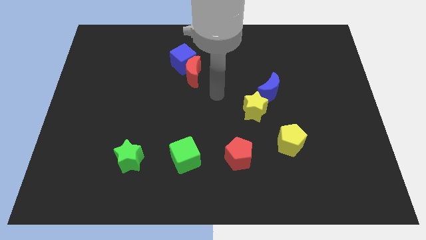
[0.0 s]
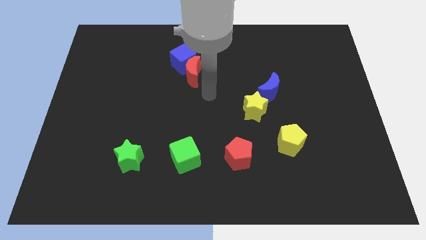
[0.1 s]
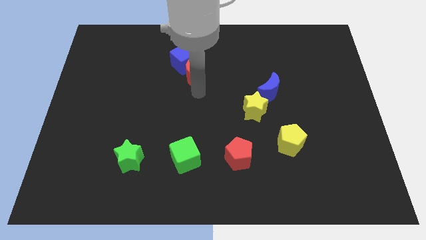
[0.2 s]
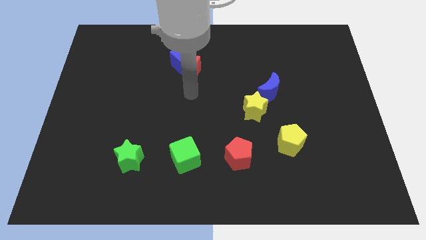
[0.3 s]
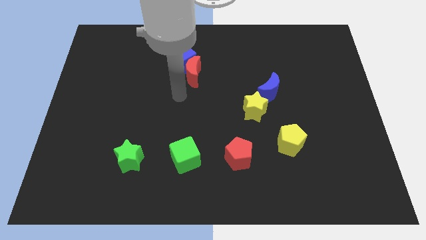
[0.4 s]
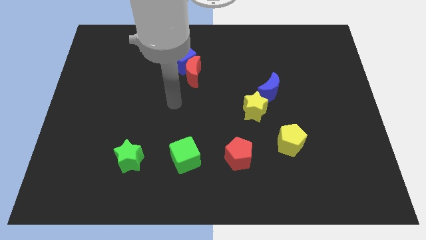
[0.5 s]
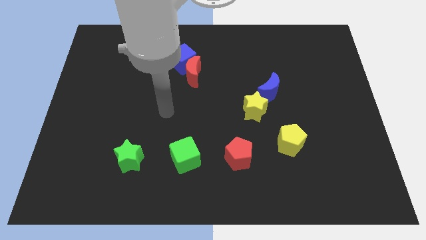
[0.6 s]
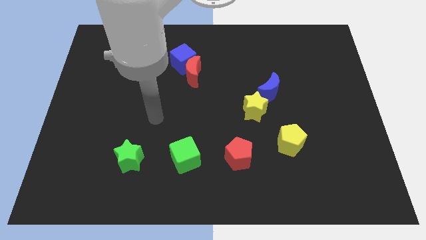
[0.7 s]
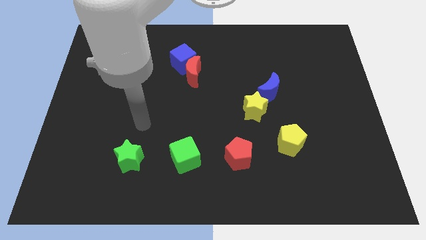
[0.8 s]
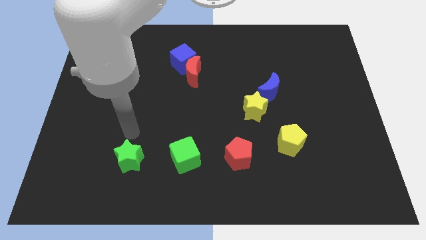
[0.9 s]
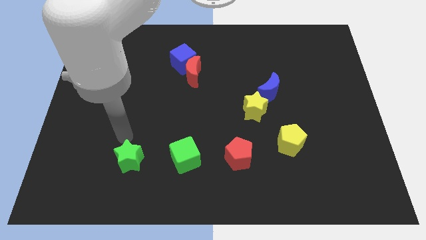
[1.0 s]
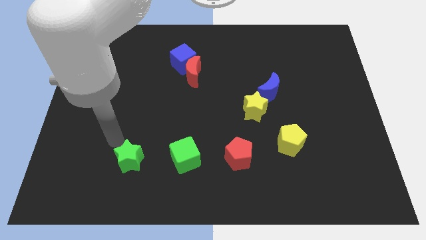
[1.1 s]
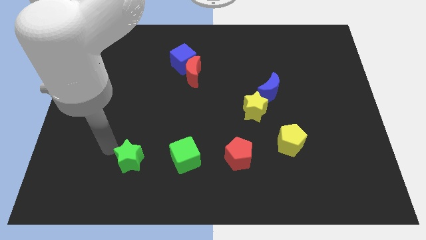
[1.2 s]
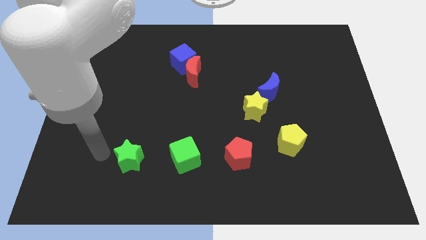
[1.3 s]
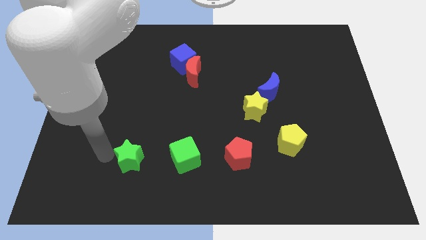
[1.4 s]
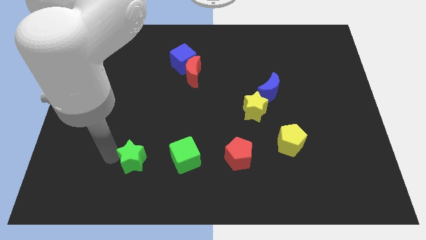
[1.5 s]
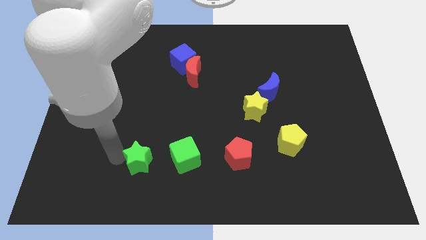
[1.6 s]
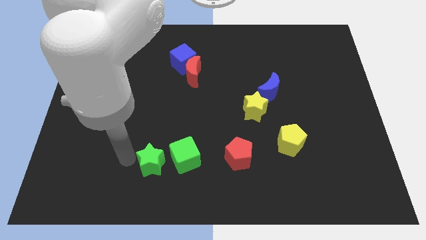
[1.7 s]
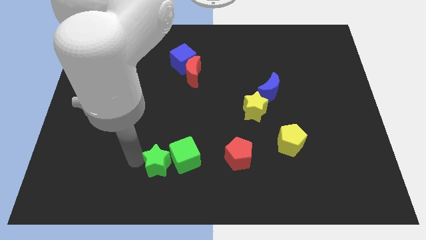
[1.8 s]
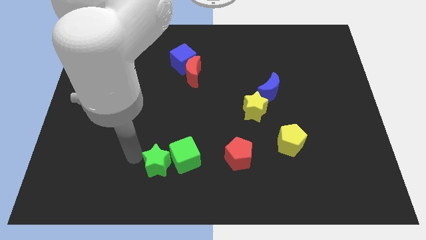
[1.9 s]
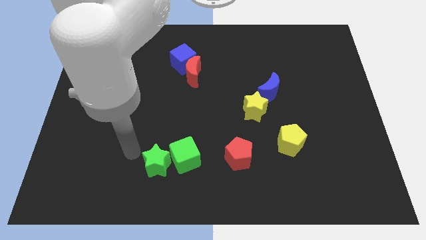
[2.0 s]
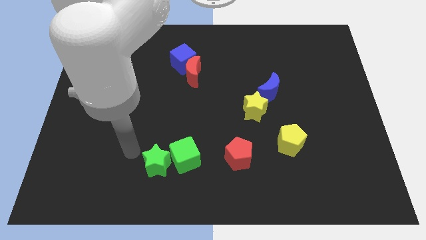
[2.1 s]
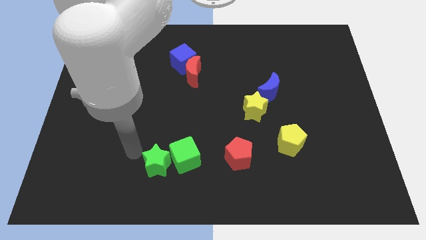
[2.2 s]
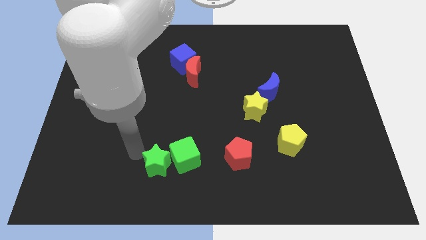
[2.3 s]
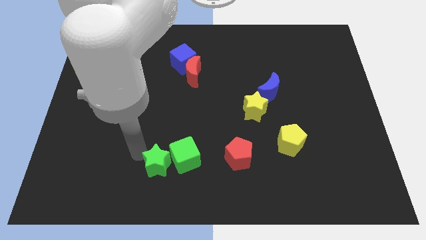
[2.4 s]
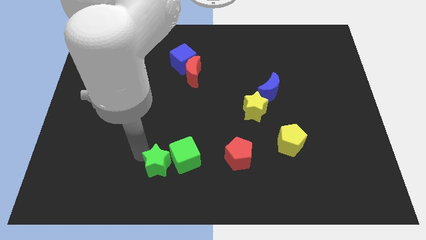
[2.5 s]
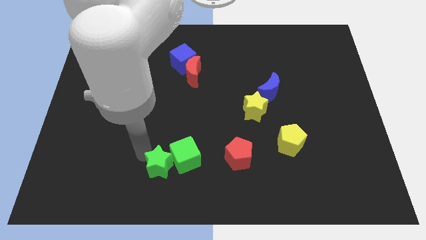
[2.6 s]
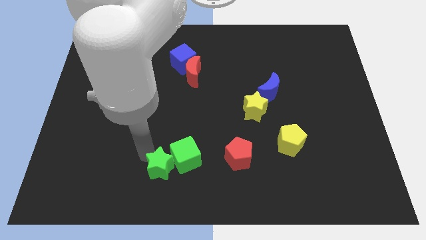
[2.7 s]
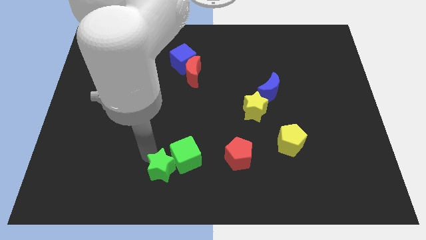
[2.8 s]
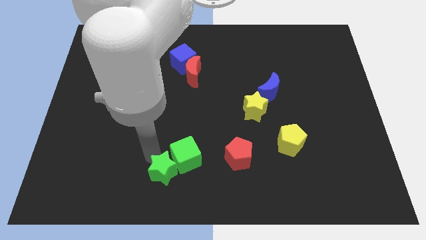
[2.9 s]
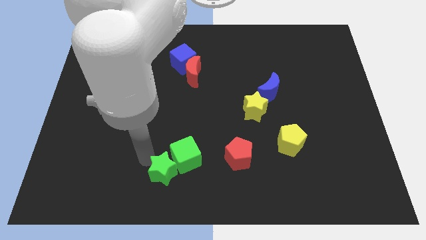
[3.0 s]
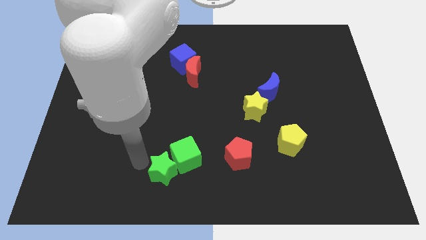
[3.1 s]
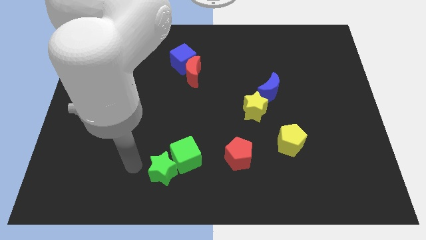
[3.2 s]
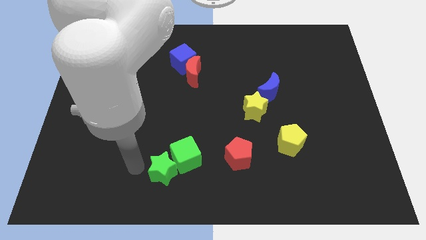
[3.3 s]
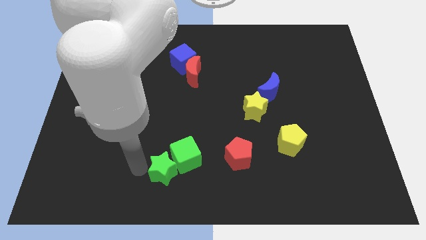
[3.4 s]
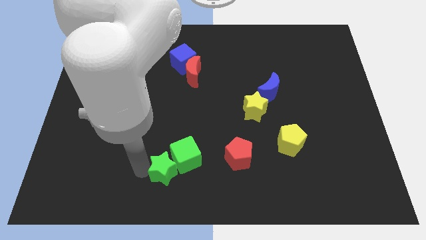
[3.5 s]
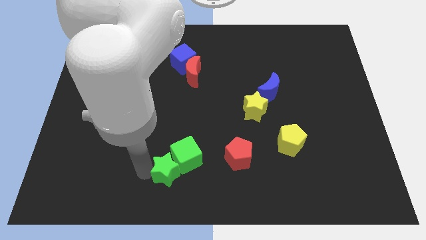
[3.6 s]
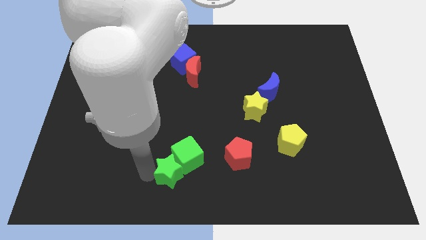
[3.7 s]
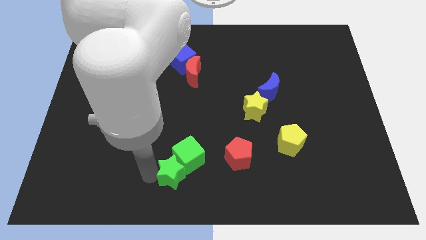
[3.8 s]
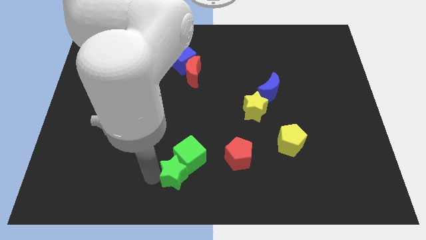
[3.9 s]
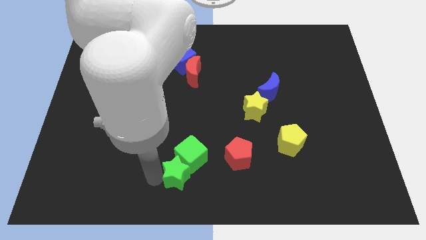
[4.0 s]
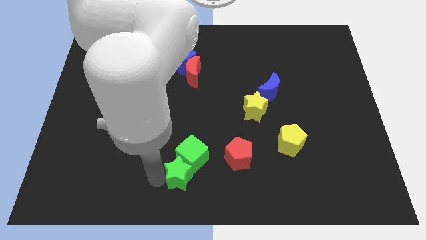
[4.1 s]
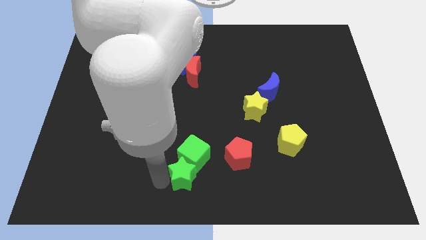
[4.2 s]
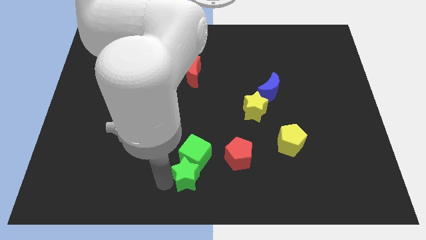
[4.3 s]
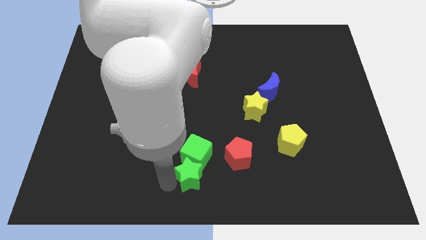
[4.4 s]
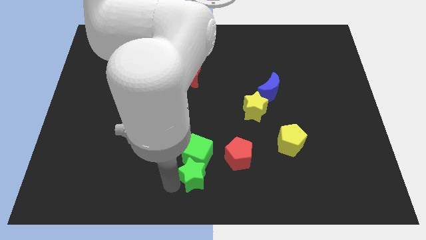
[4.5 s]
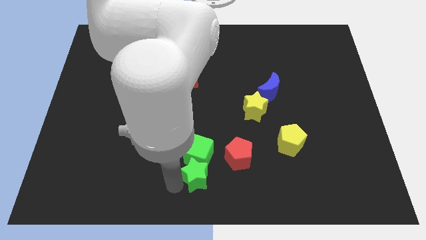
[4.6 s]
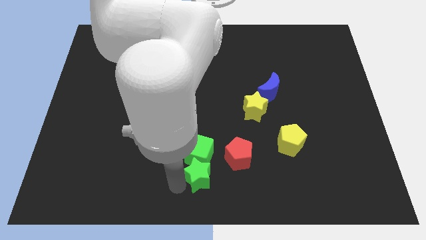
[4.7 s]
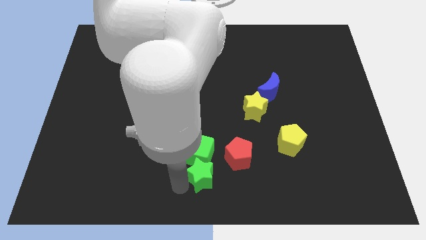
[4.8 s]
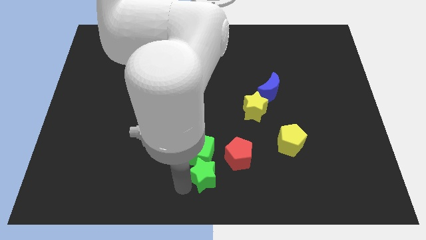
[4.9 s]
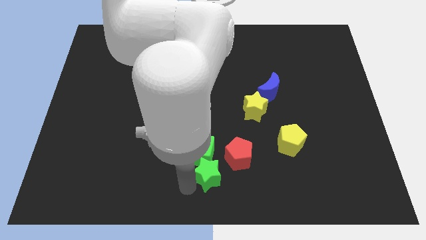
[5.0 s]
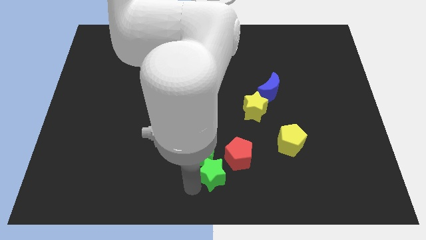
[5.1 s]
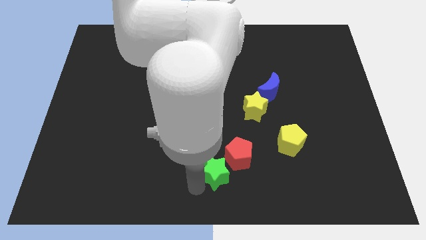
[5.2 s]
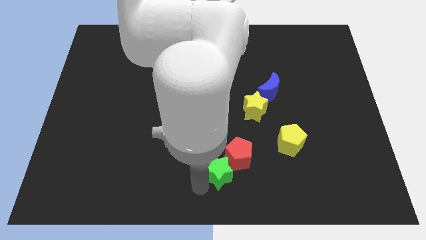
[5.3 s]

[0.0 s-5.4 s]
slide the green star to the red pentagon

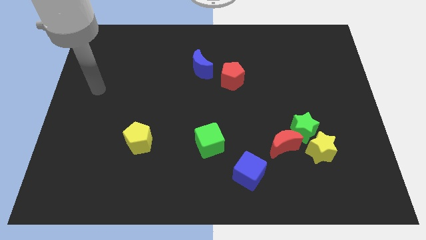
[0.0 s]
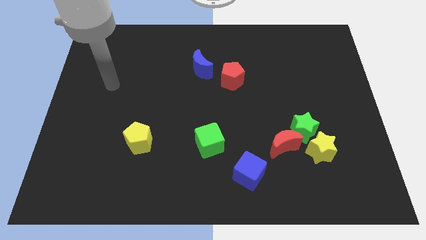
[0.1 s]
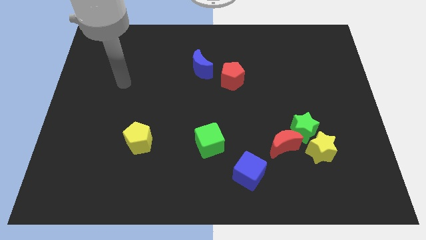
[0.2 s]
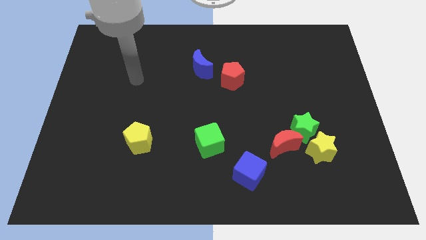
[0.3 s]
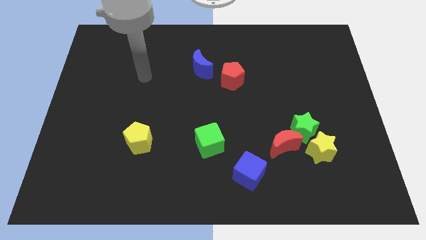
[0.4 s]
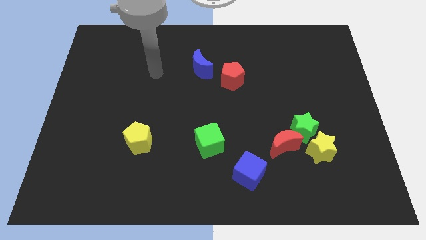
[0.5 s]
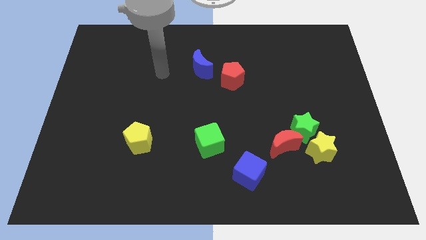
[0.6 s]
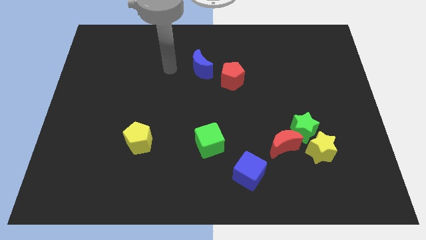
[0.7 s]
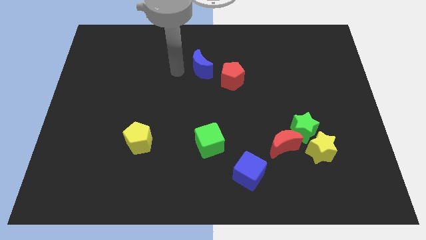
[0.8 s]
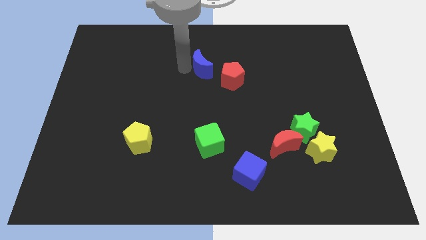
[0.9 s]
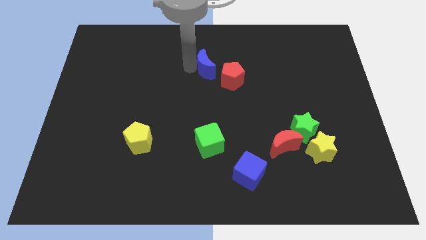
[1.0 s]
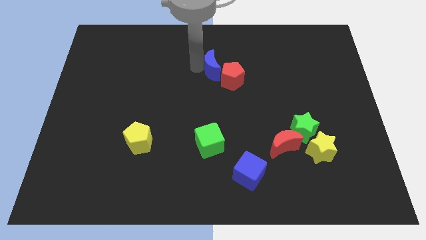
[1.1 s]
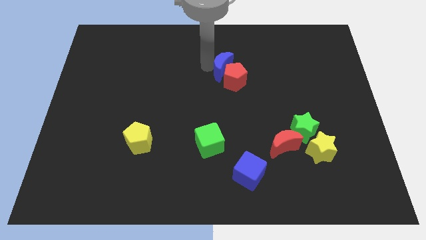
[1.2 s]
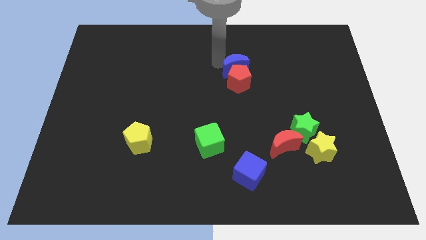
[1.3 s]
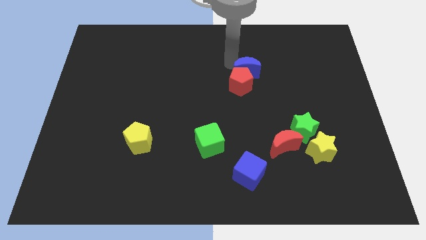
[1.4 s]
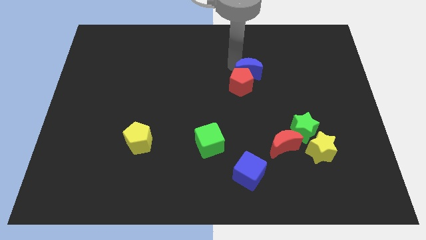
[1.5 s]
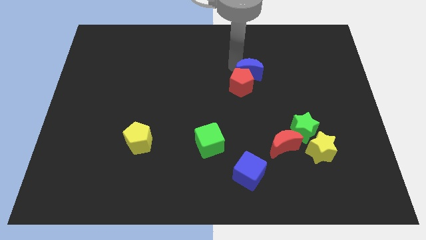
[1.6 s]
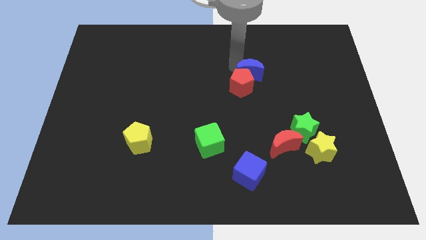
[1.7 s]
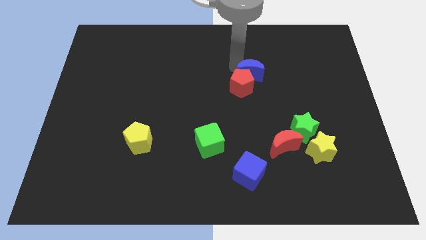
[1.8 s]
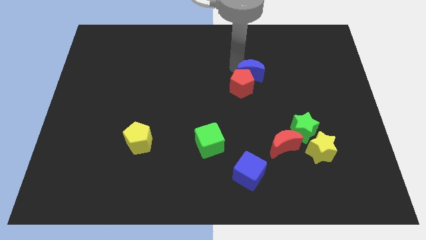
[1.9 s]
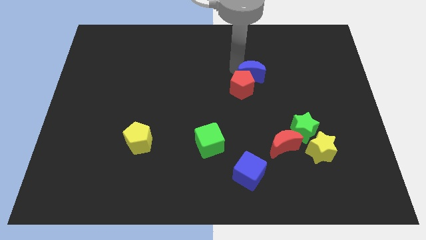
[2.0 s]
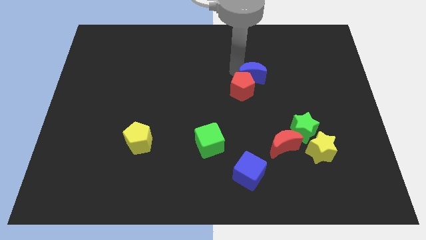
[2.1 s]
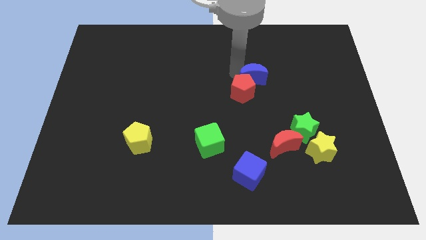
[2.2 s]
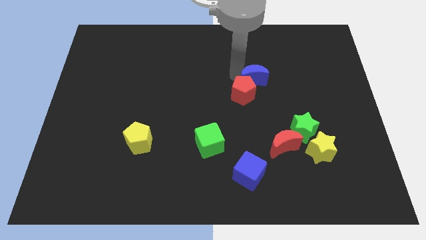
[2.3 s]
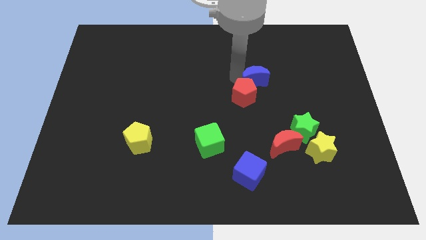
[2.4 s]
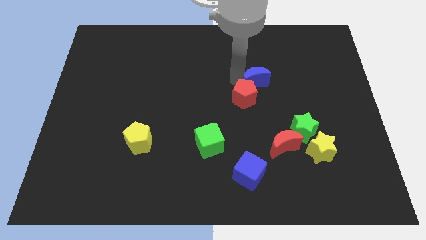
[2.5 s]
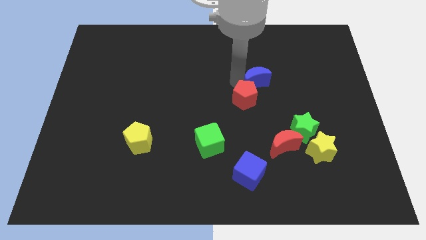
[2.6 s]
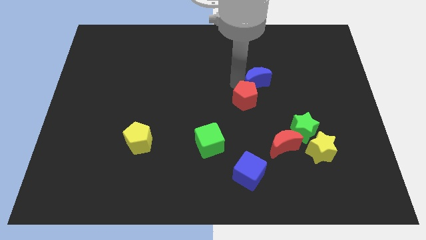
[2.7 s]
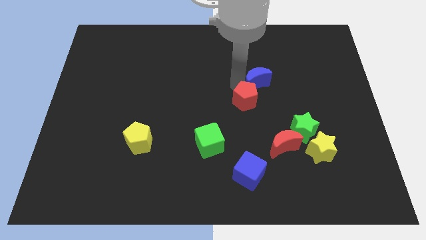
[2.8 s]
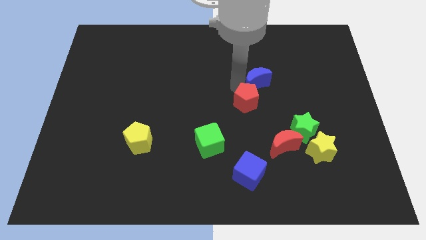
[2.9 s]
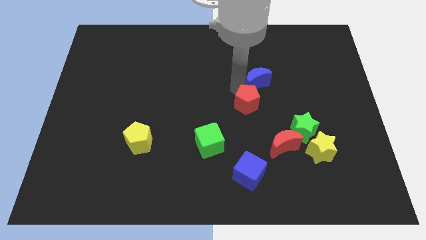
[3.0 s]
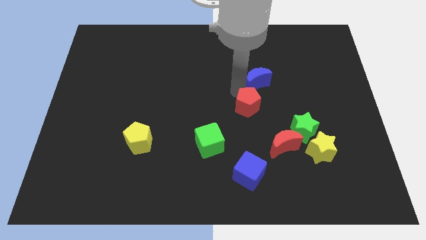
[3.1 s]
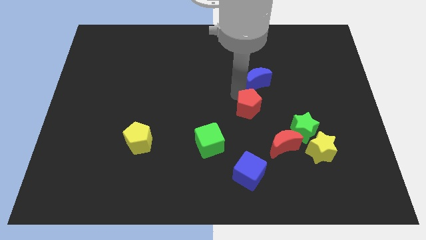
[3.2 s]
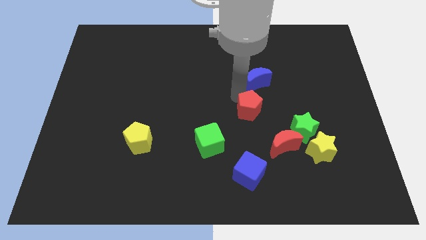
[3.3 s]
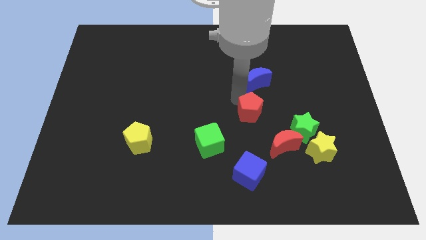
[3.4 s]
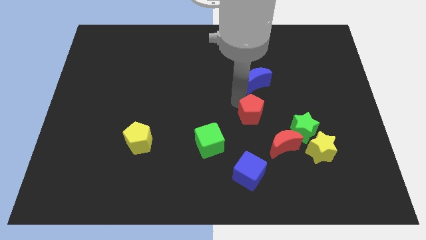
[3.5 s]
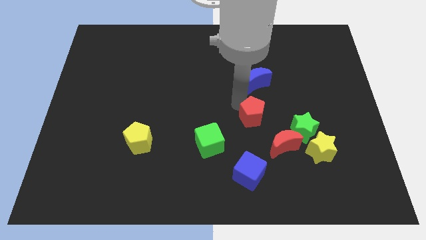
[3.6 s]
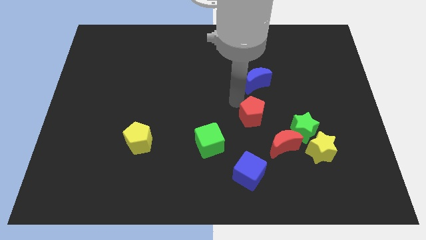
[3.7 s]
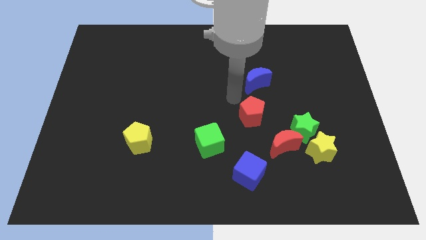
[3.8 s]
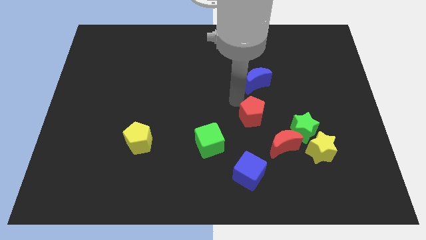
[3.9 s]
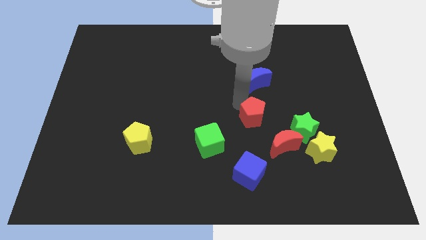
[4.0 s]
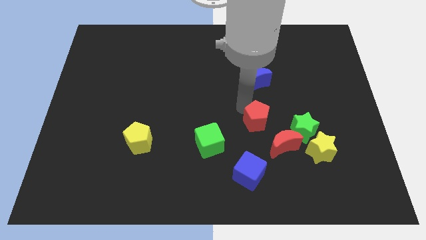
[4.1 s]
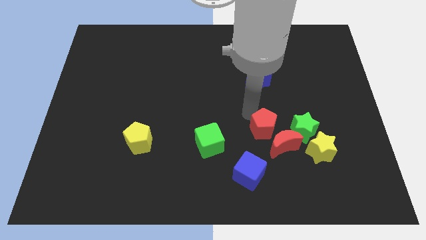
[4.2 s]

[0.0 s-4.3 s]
put the red pentagon to the red moon
